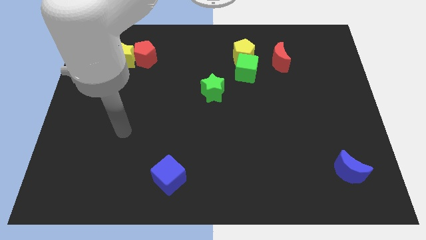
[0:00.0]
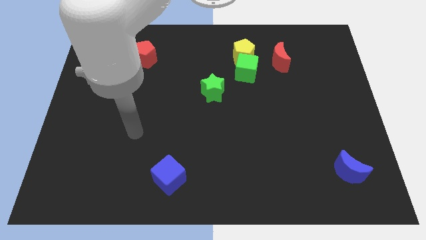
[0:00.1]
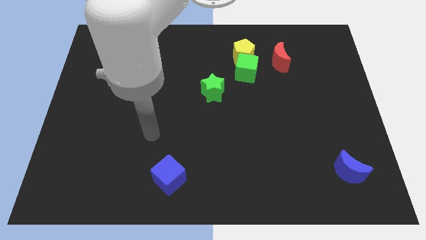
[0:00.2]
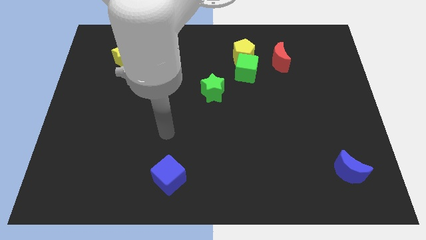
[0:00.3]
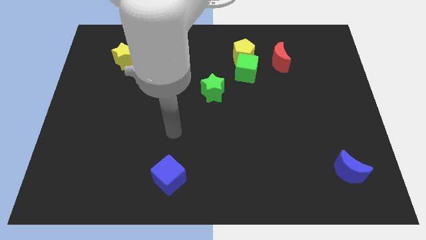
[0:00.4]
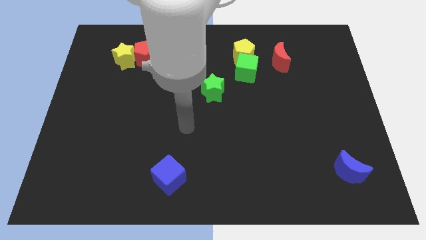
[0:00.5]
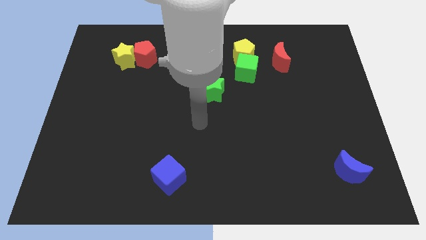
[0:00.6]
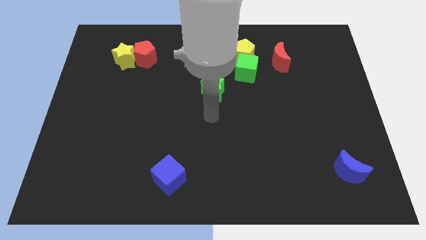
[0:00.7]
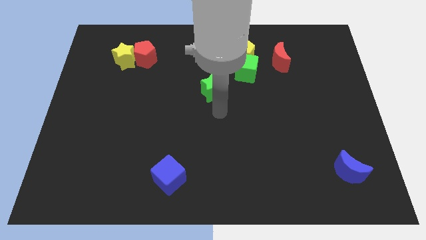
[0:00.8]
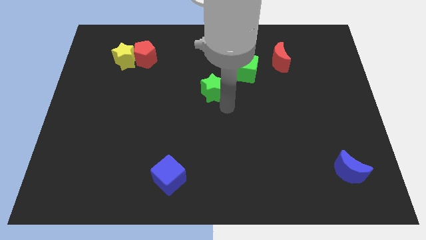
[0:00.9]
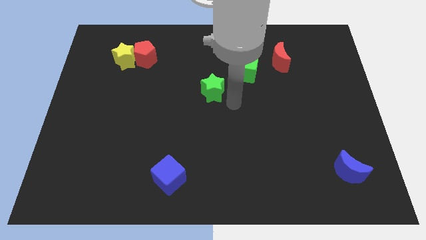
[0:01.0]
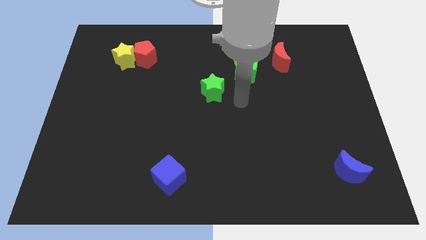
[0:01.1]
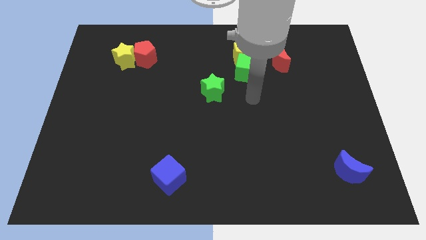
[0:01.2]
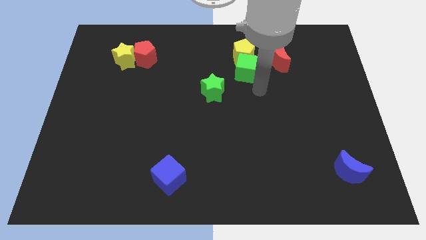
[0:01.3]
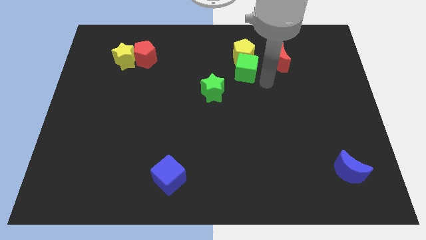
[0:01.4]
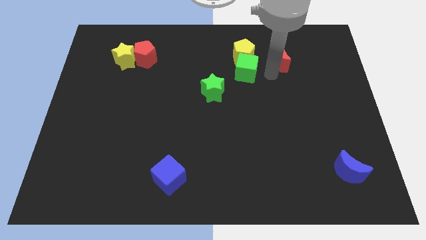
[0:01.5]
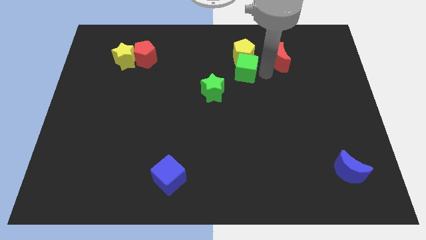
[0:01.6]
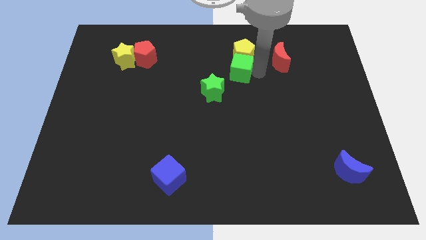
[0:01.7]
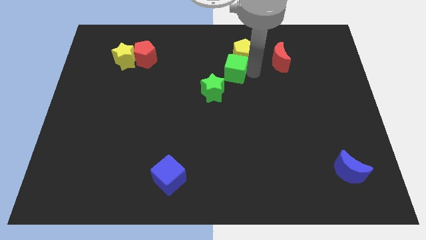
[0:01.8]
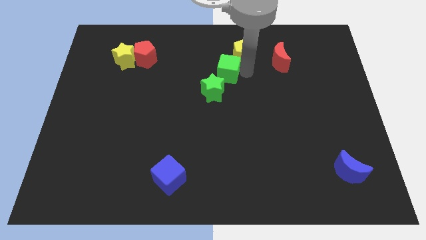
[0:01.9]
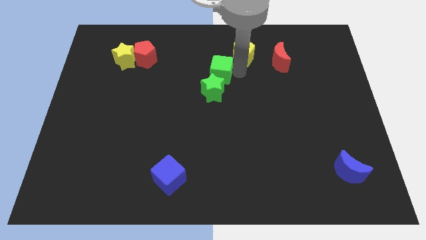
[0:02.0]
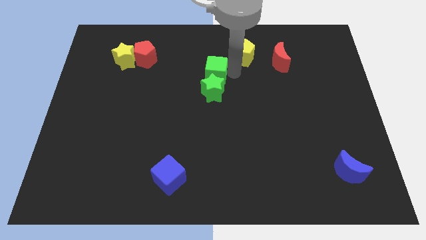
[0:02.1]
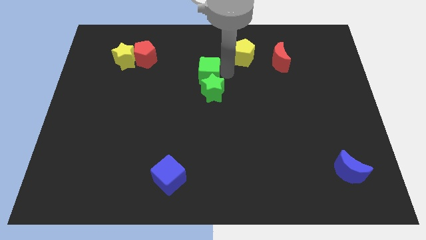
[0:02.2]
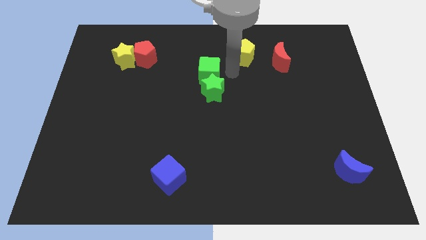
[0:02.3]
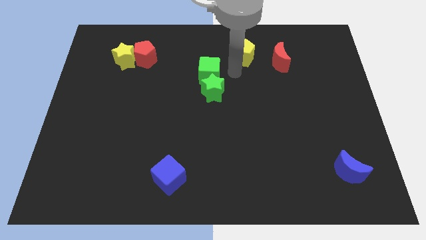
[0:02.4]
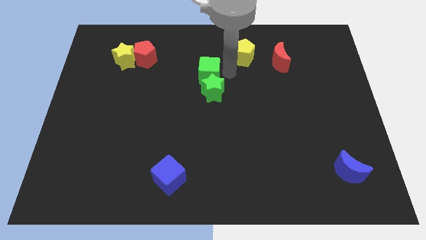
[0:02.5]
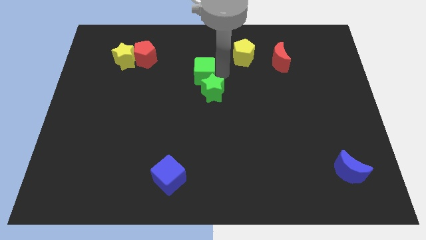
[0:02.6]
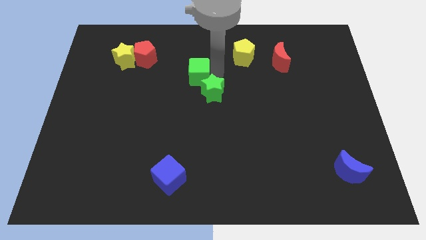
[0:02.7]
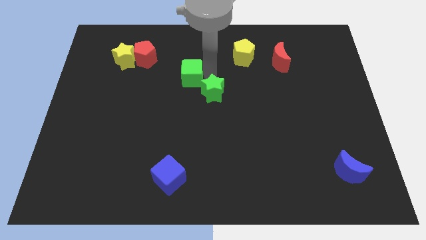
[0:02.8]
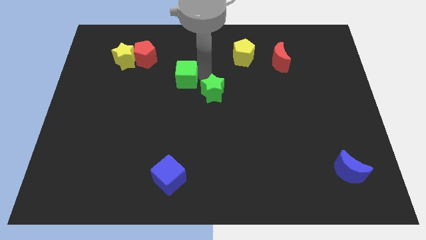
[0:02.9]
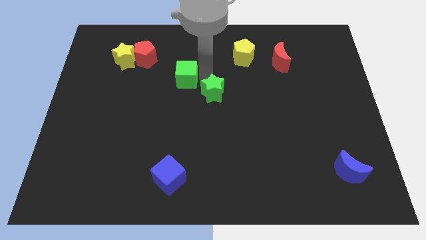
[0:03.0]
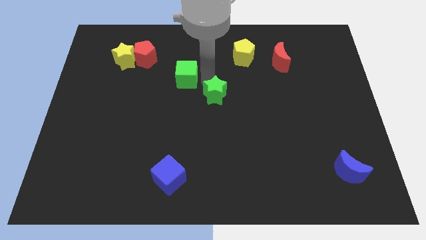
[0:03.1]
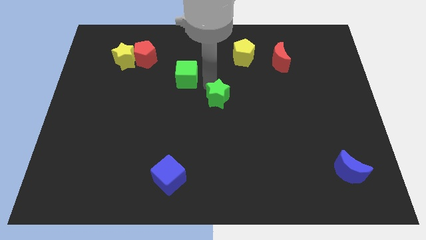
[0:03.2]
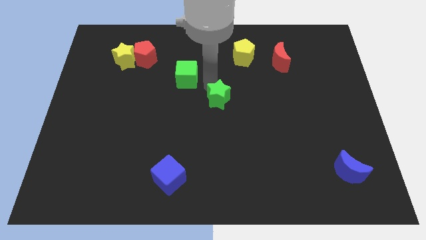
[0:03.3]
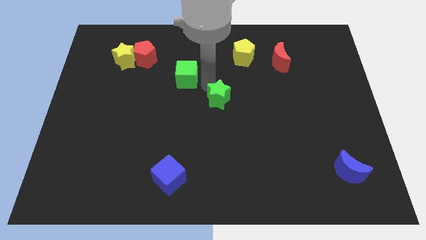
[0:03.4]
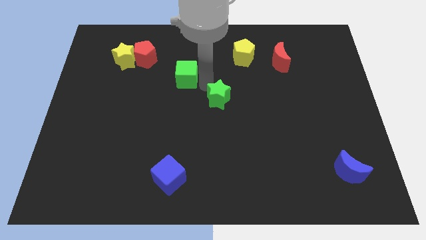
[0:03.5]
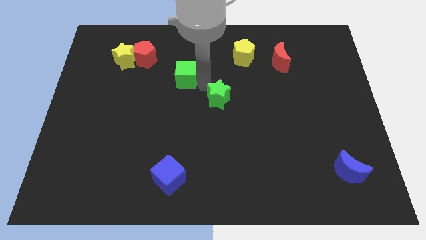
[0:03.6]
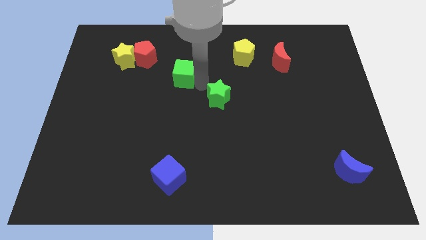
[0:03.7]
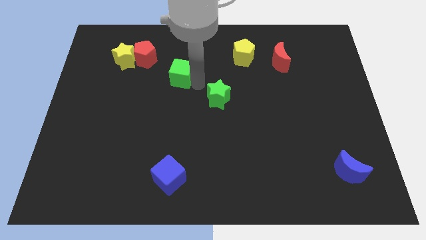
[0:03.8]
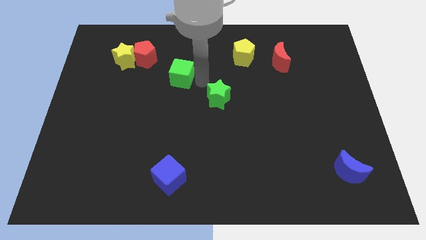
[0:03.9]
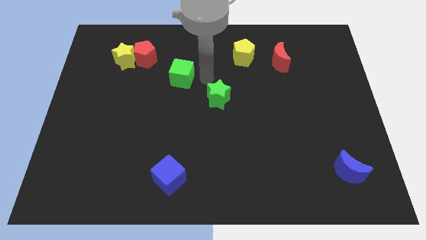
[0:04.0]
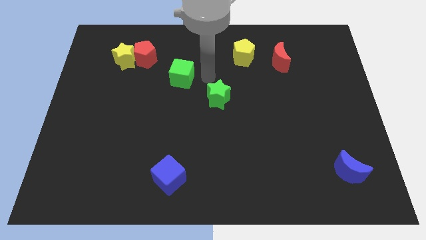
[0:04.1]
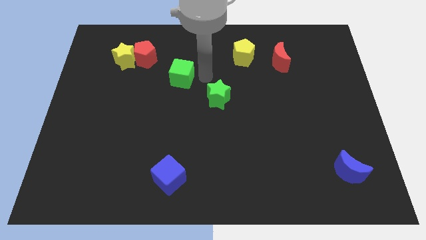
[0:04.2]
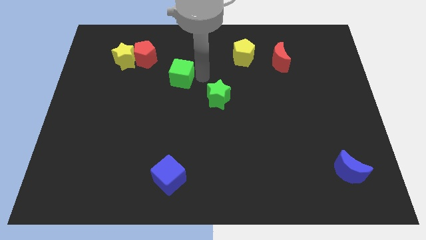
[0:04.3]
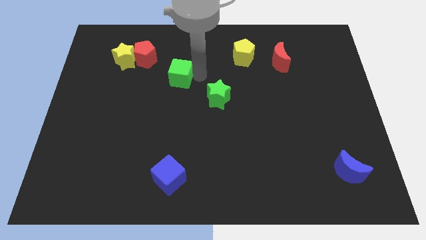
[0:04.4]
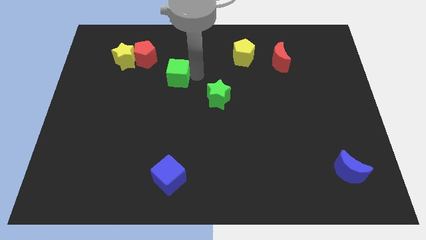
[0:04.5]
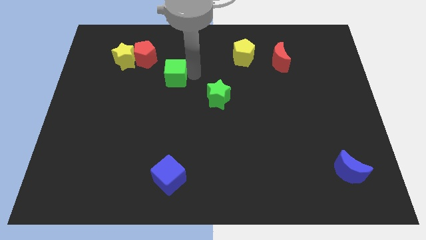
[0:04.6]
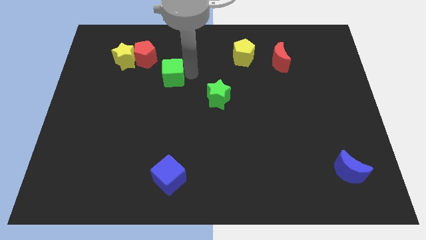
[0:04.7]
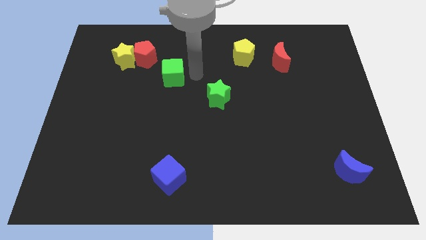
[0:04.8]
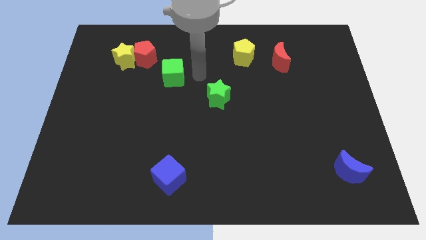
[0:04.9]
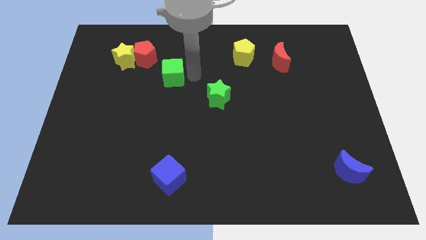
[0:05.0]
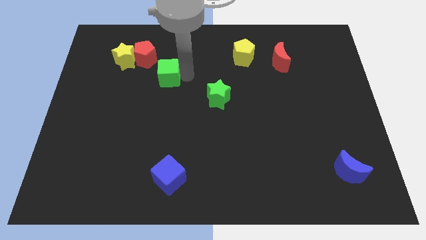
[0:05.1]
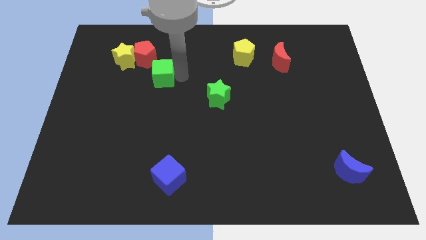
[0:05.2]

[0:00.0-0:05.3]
slide the green cube to the left

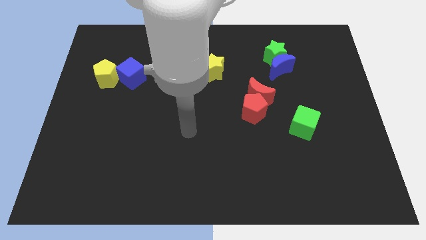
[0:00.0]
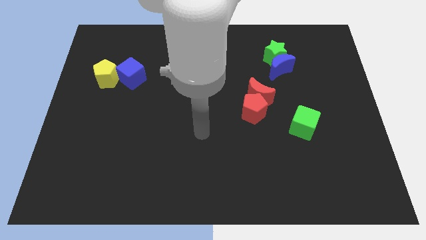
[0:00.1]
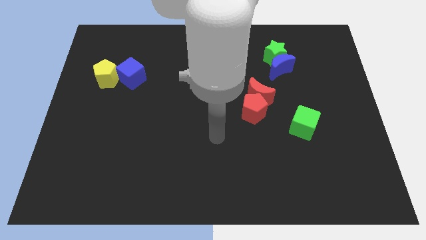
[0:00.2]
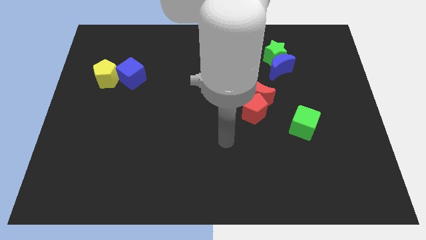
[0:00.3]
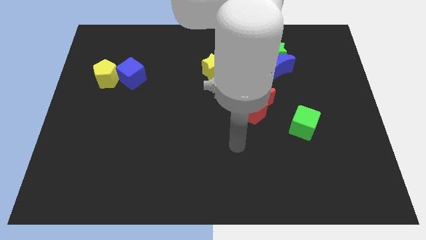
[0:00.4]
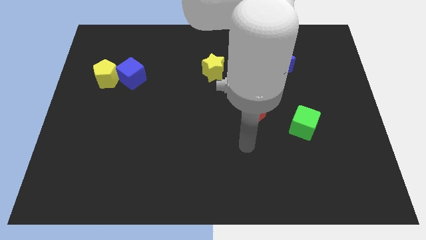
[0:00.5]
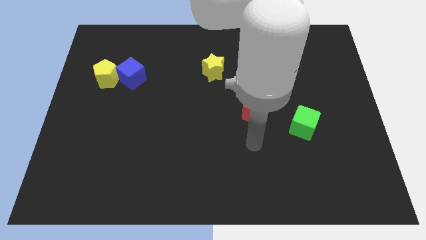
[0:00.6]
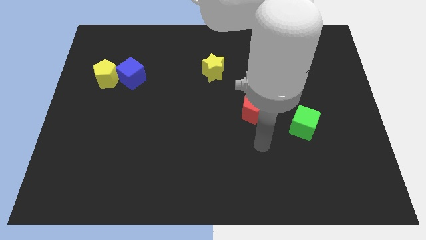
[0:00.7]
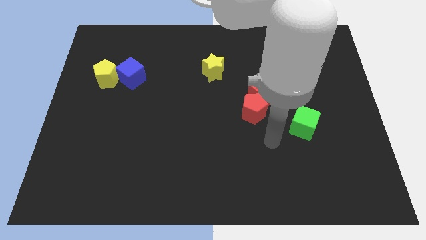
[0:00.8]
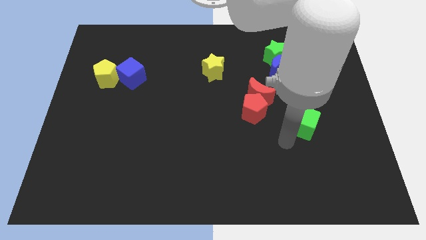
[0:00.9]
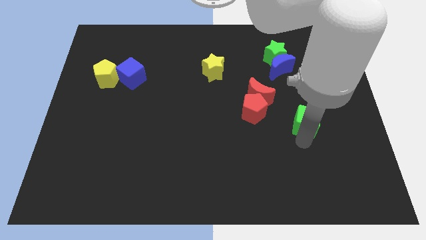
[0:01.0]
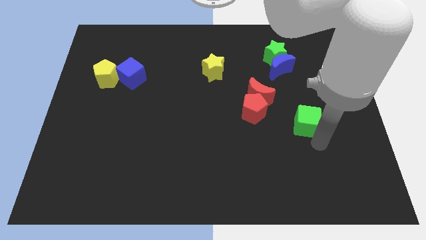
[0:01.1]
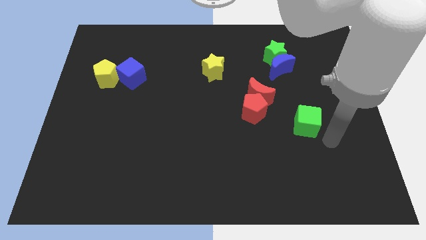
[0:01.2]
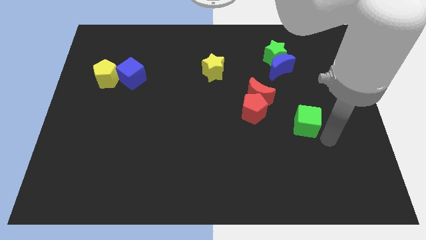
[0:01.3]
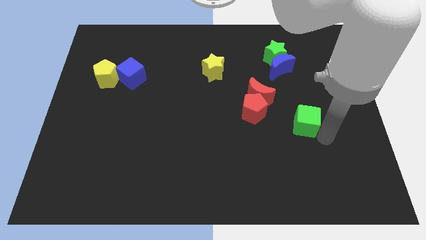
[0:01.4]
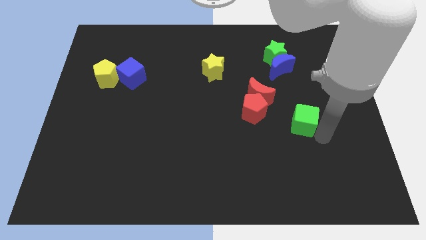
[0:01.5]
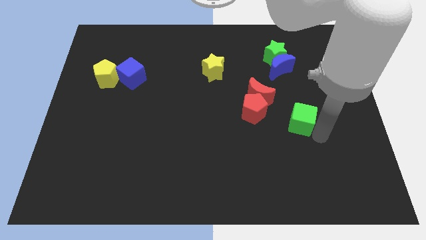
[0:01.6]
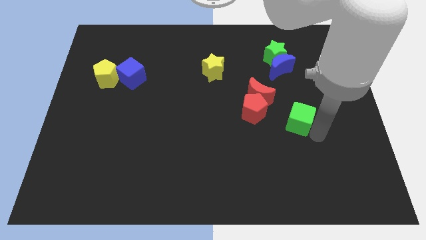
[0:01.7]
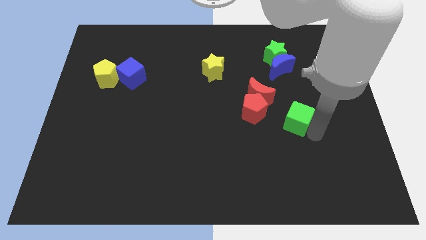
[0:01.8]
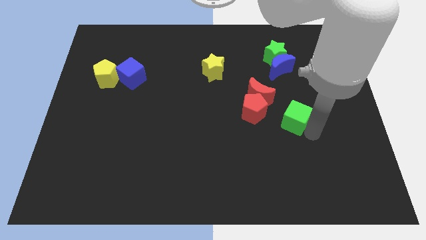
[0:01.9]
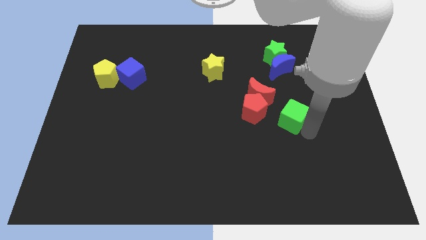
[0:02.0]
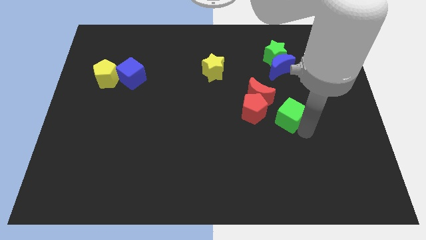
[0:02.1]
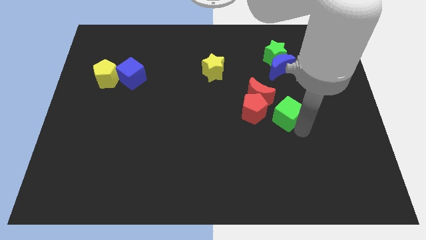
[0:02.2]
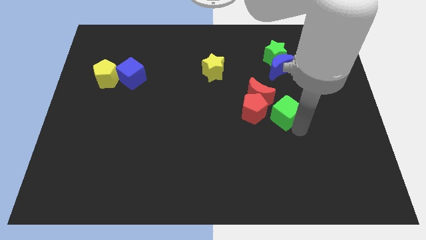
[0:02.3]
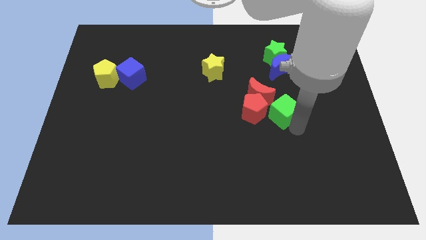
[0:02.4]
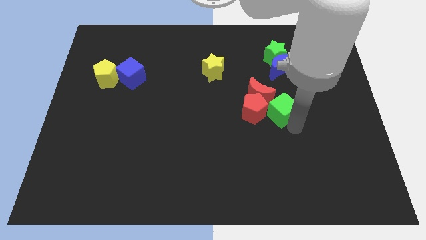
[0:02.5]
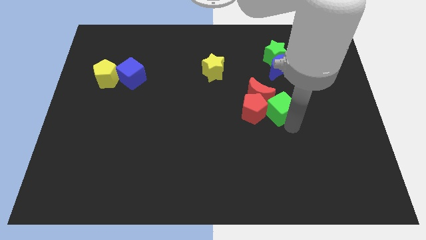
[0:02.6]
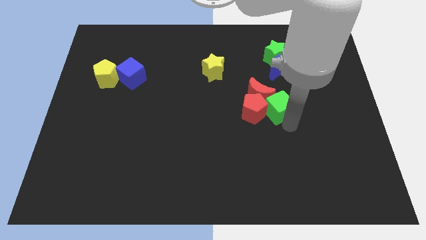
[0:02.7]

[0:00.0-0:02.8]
move the green cube upwards and left a little bit
